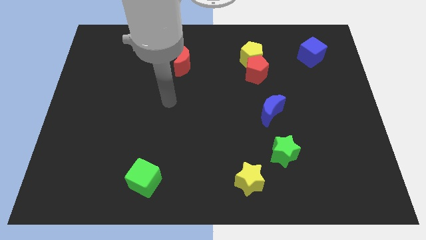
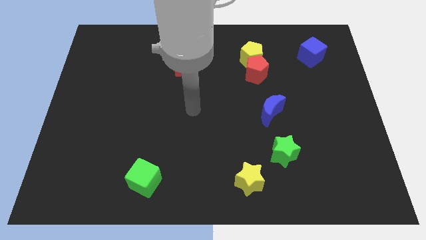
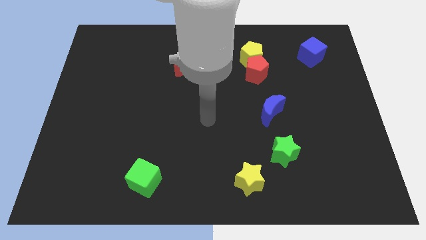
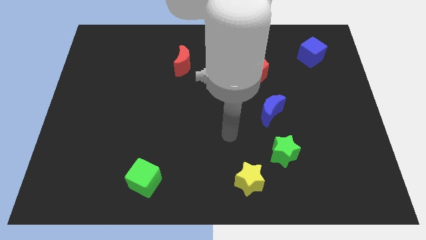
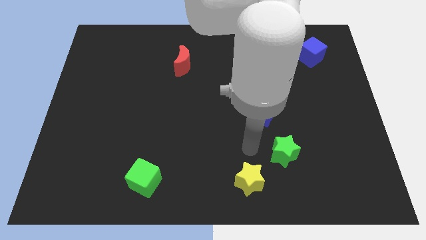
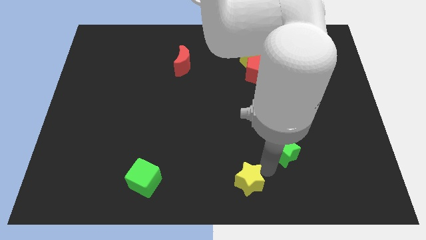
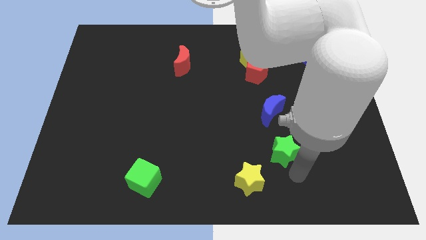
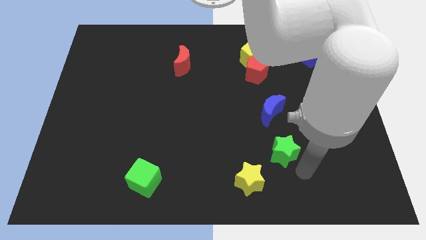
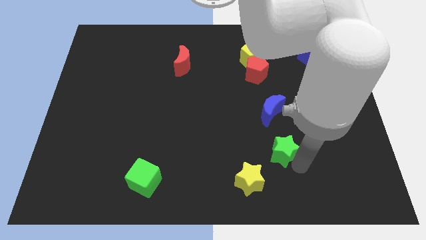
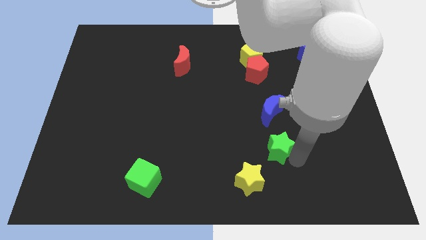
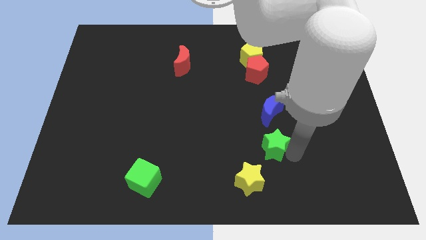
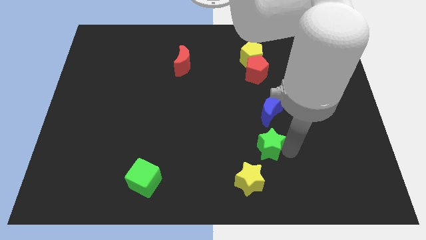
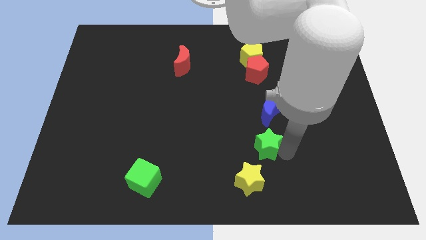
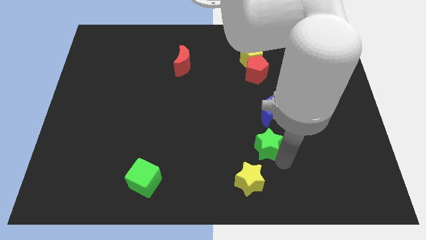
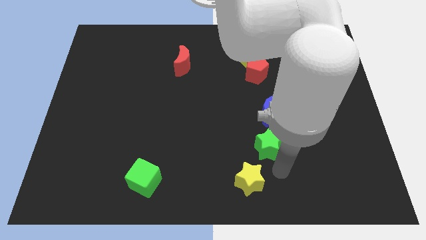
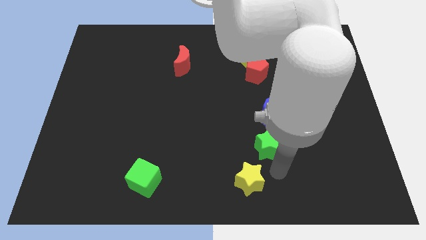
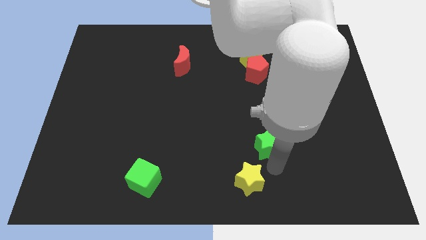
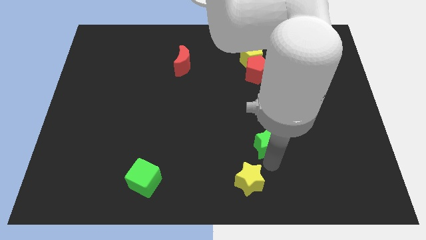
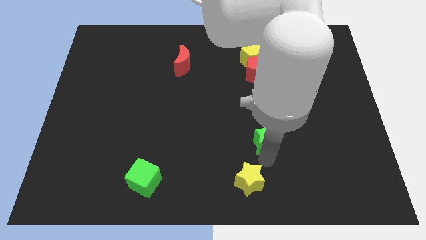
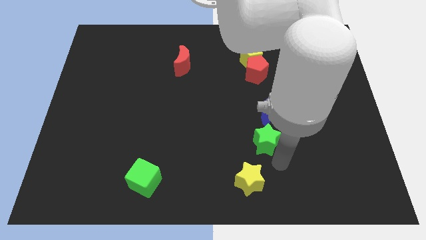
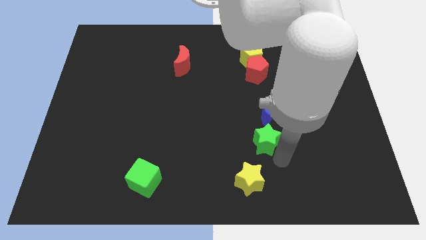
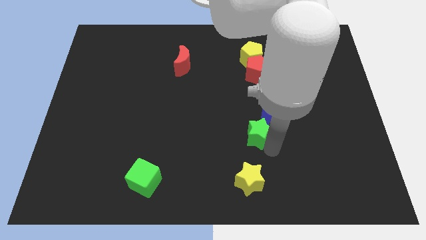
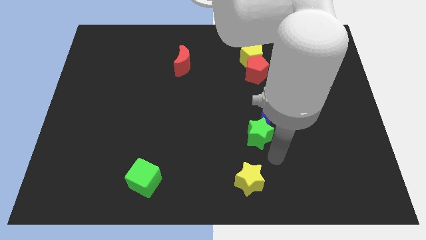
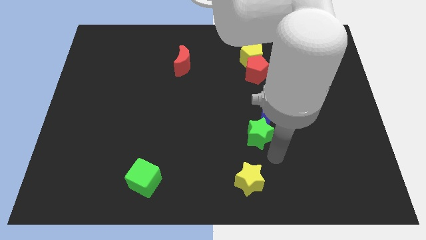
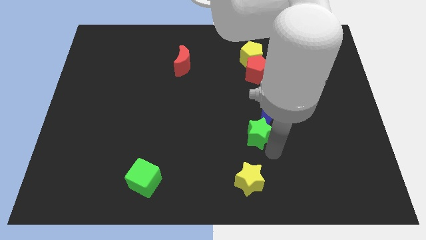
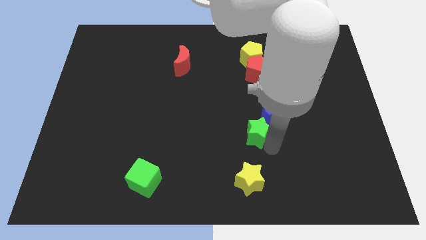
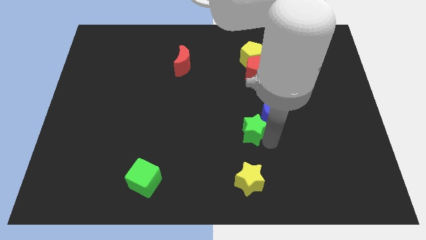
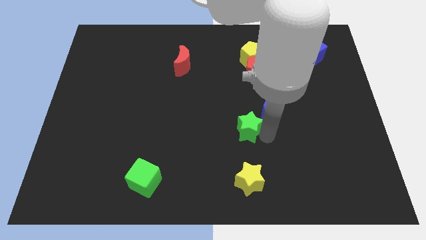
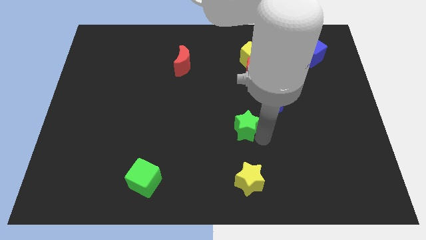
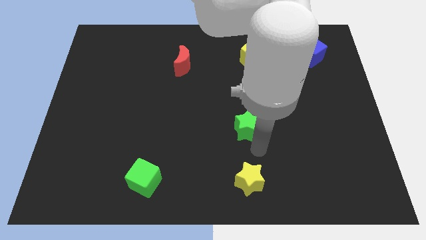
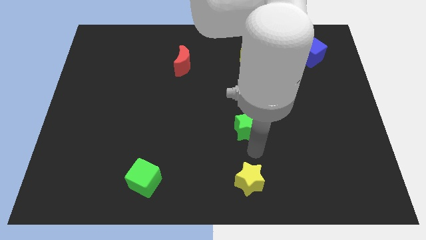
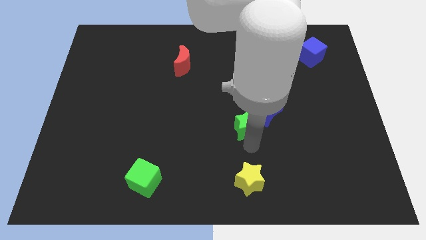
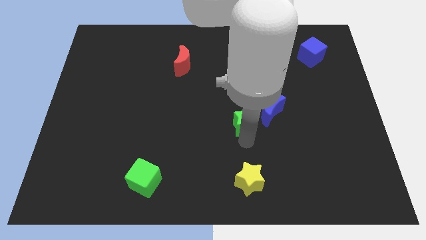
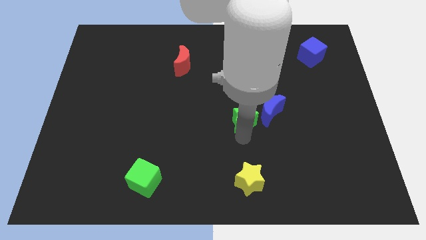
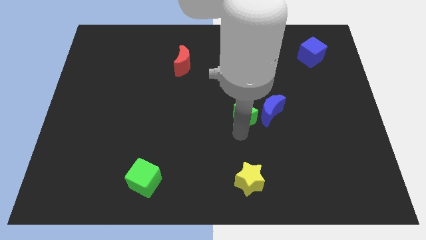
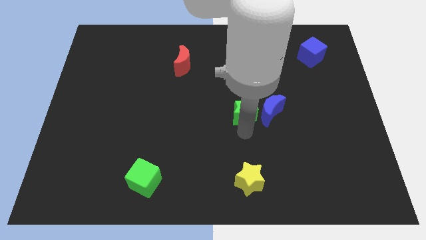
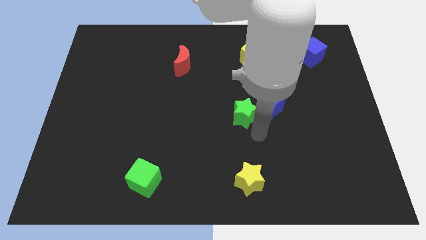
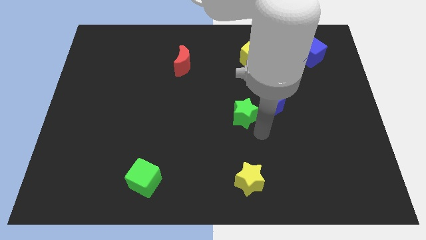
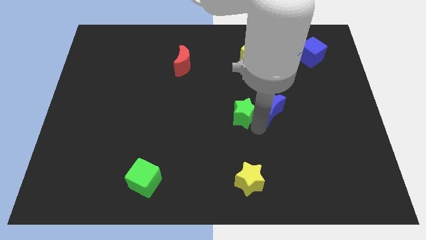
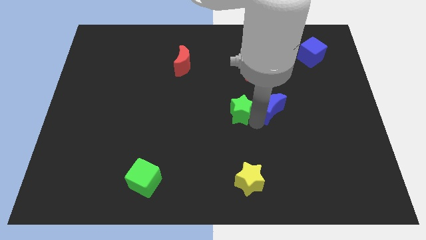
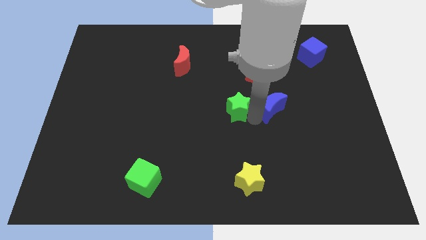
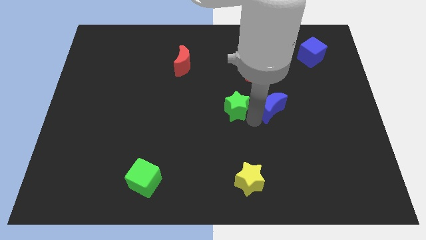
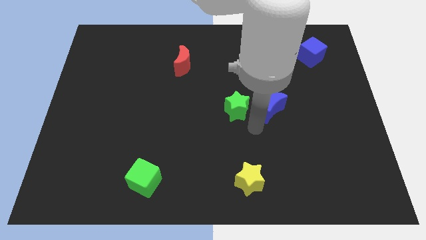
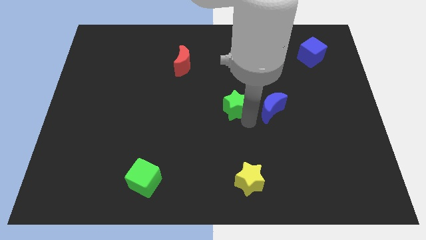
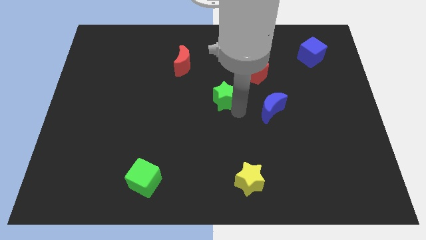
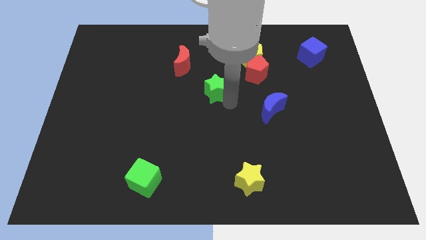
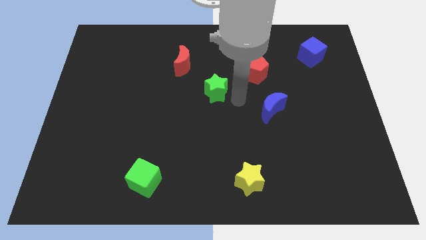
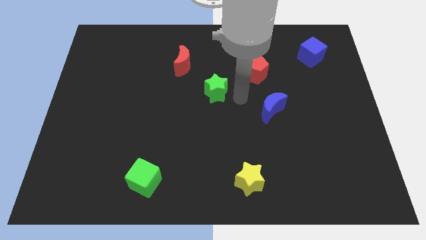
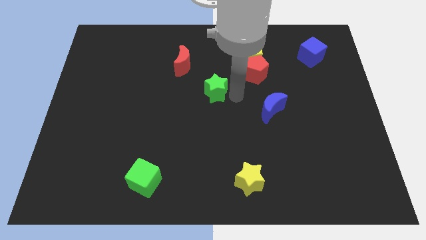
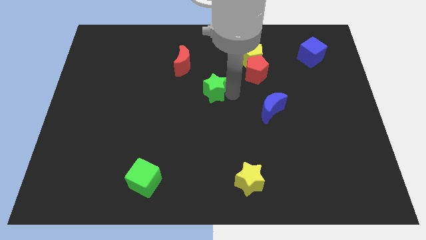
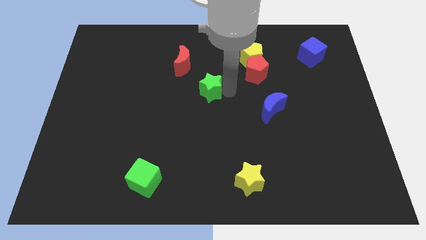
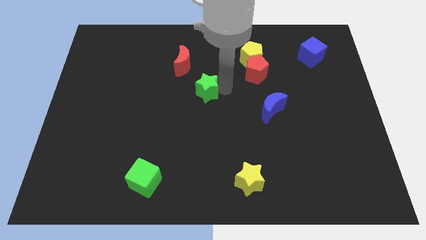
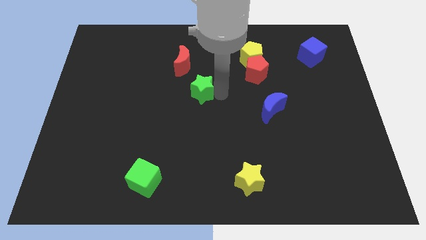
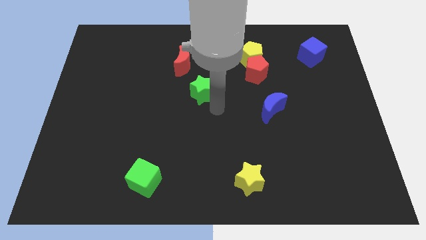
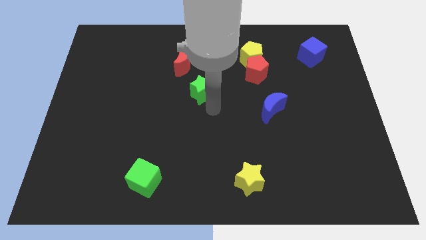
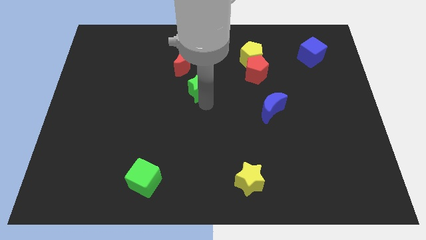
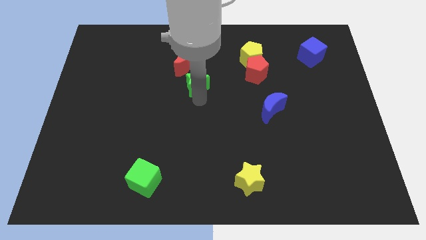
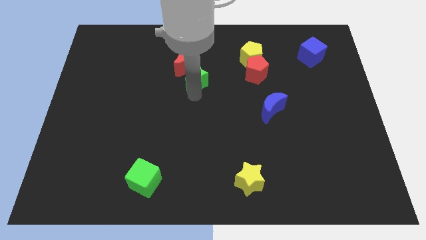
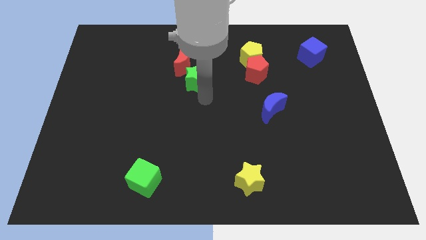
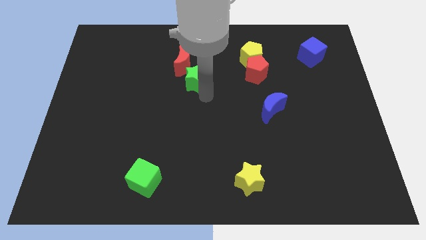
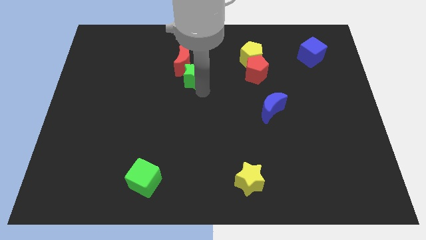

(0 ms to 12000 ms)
move the green star next to the red moon

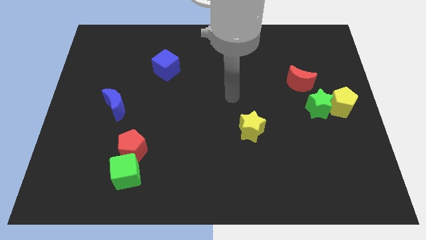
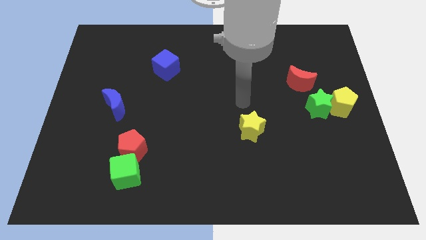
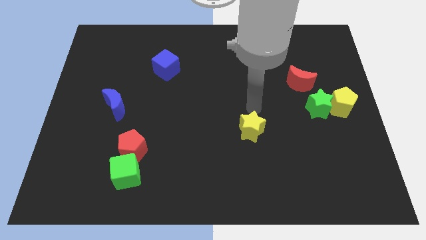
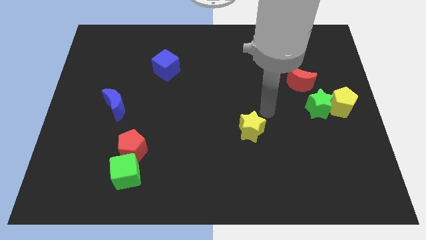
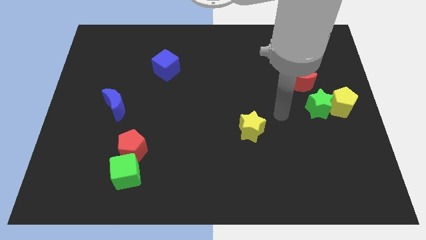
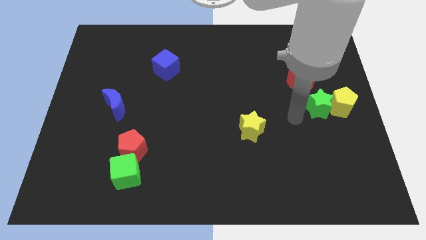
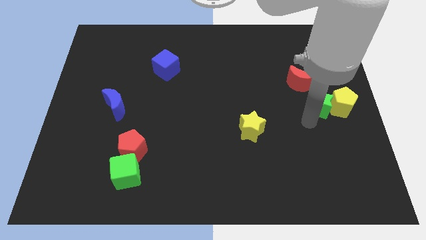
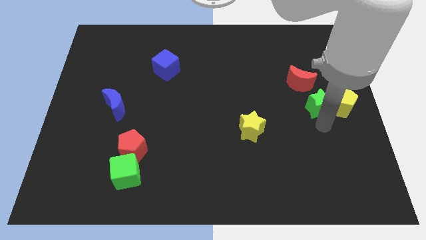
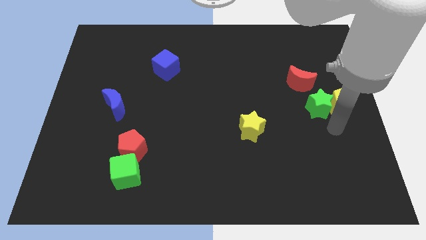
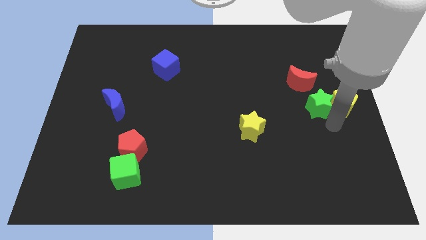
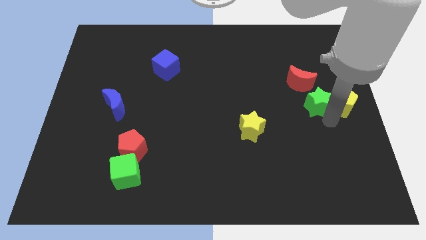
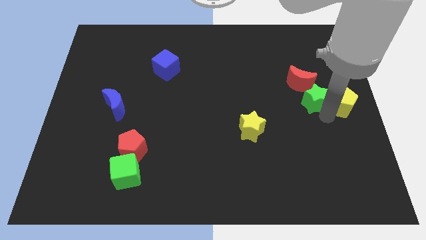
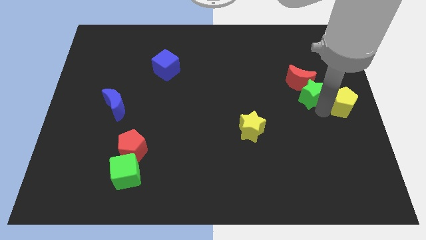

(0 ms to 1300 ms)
slide the green star close to the red moon
